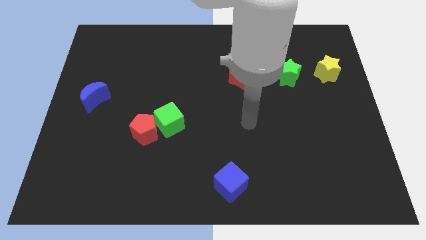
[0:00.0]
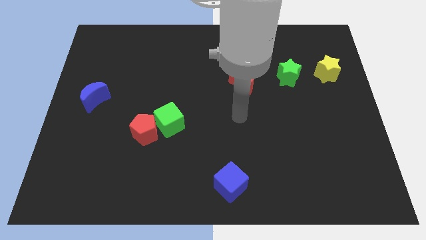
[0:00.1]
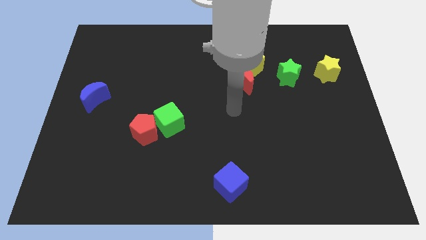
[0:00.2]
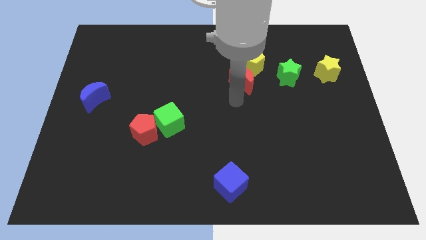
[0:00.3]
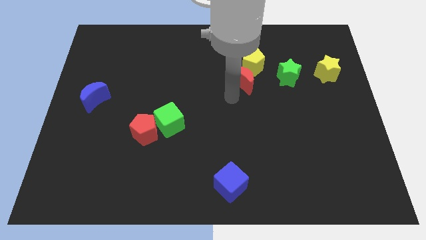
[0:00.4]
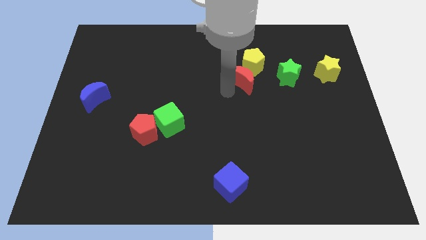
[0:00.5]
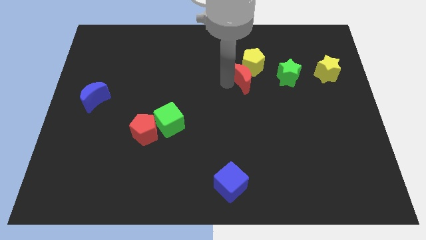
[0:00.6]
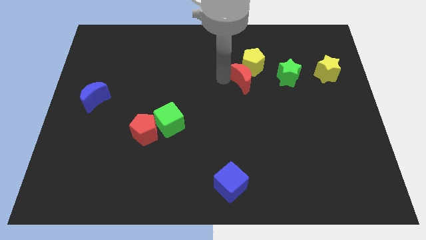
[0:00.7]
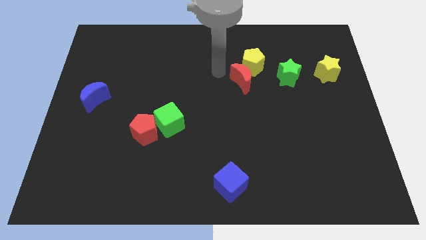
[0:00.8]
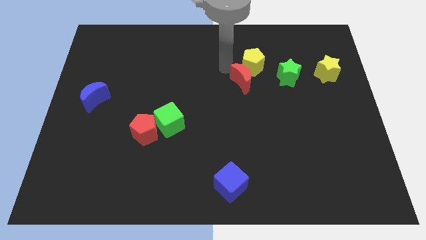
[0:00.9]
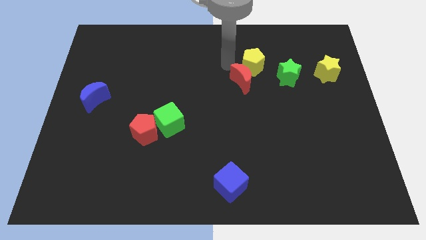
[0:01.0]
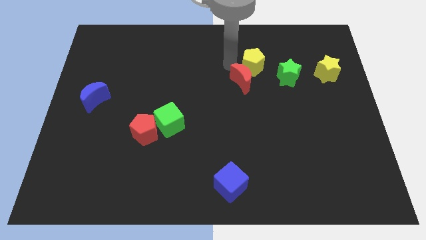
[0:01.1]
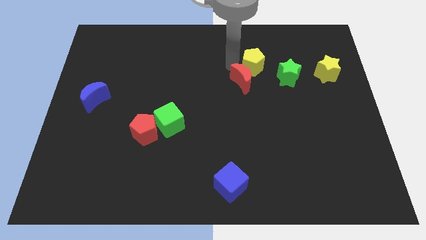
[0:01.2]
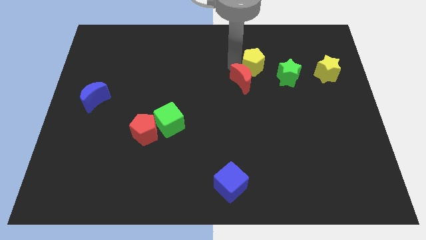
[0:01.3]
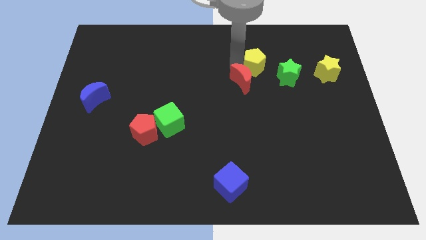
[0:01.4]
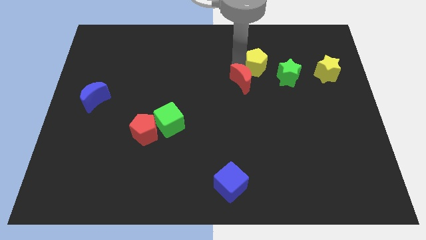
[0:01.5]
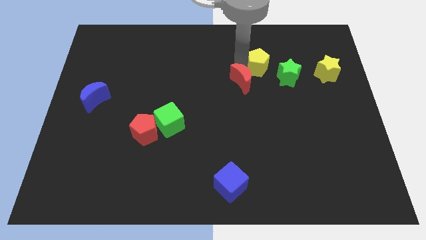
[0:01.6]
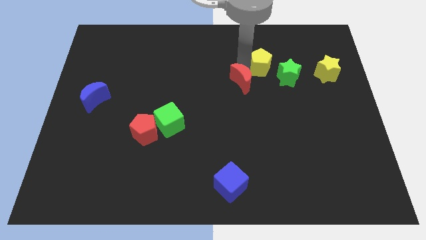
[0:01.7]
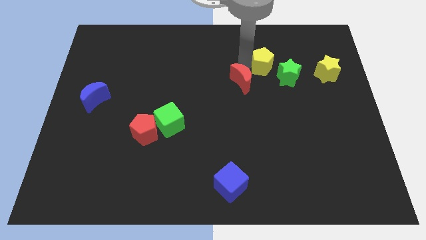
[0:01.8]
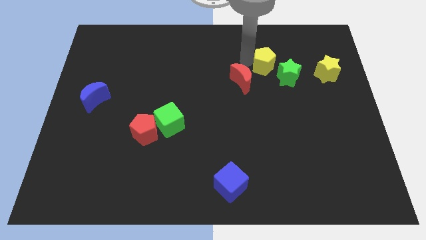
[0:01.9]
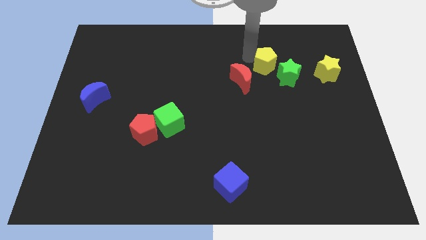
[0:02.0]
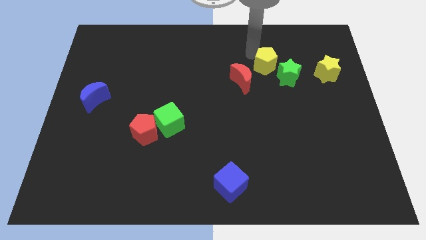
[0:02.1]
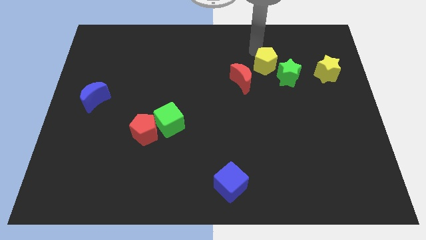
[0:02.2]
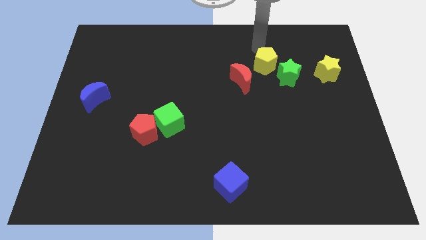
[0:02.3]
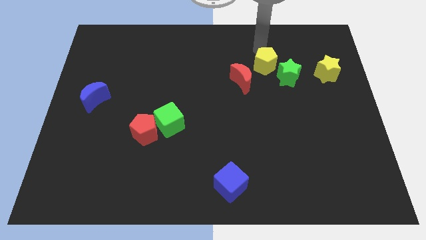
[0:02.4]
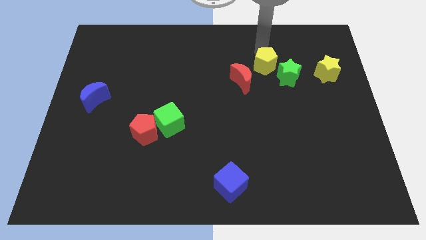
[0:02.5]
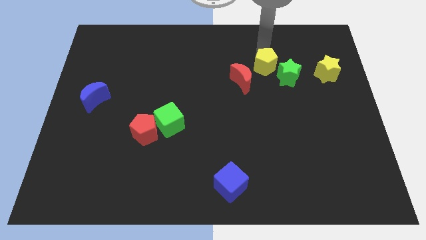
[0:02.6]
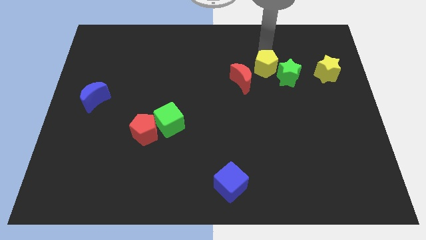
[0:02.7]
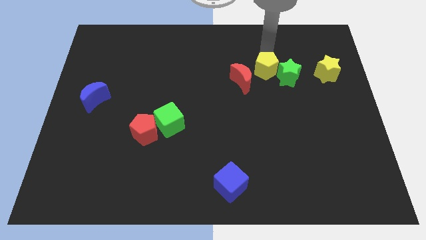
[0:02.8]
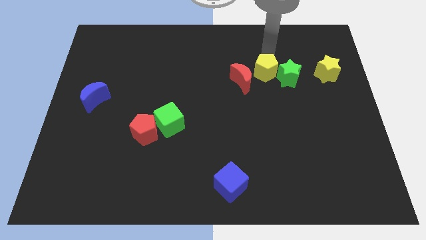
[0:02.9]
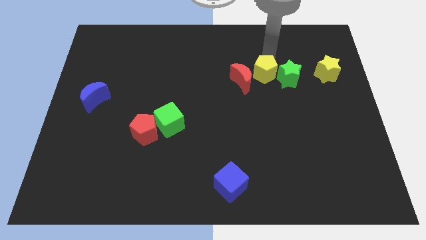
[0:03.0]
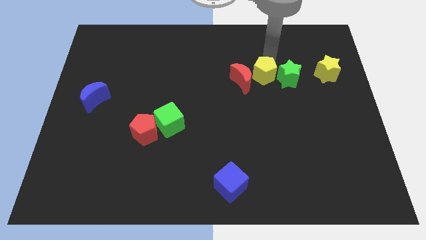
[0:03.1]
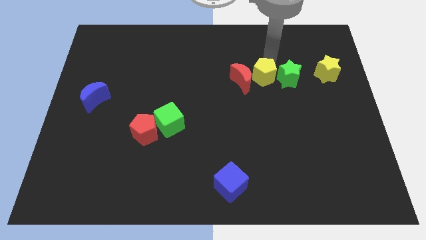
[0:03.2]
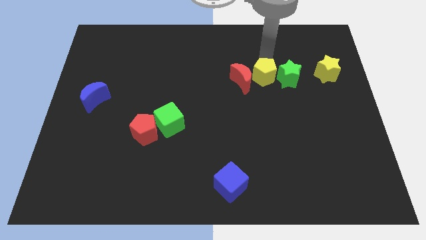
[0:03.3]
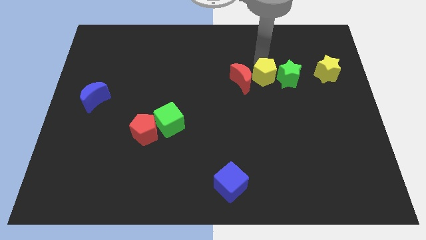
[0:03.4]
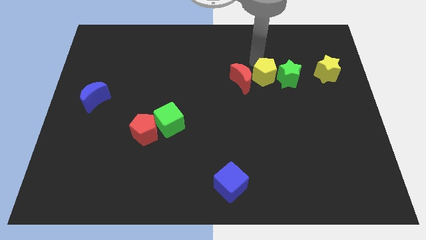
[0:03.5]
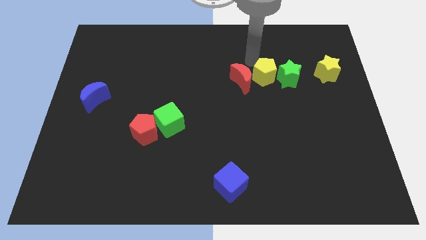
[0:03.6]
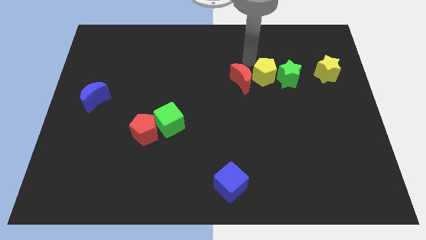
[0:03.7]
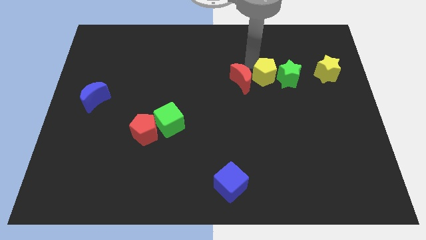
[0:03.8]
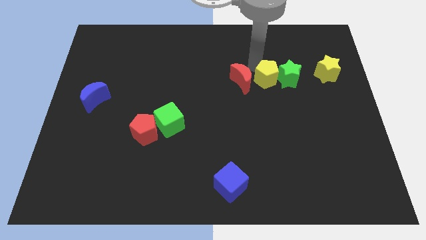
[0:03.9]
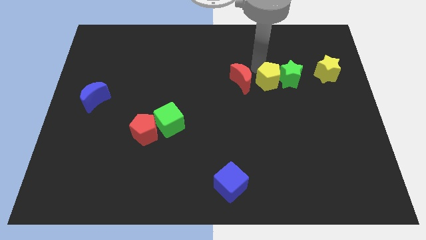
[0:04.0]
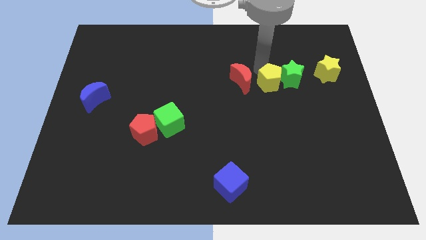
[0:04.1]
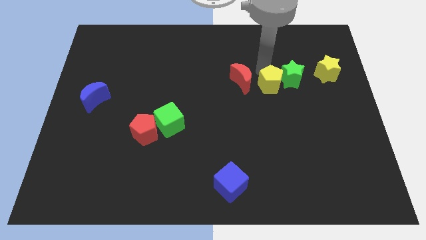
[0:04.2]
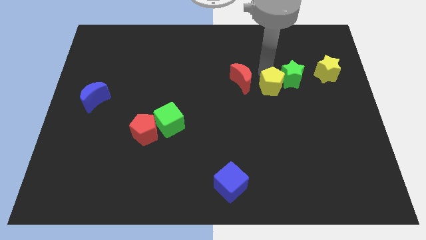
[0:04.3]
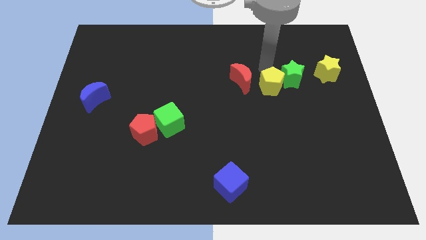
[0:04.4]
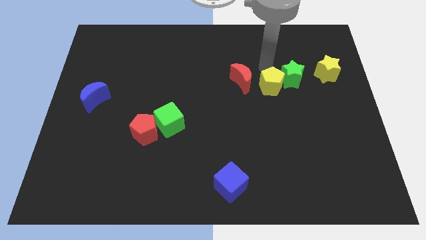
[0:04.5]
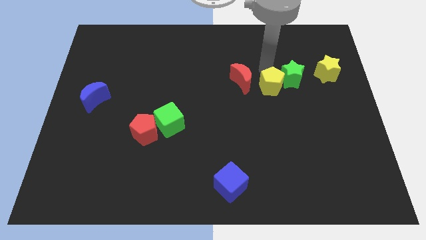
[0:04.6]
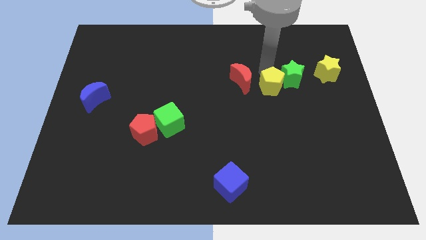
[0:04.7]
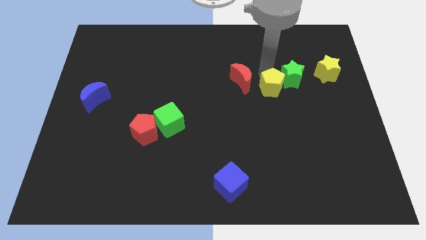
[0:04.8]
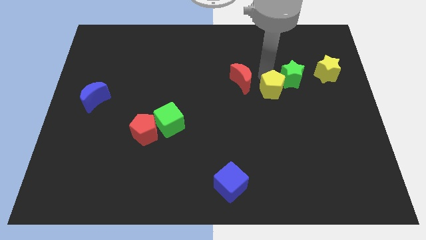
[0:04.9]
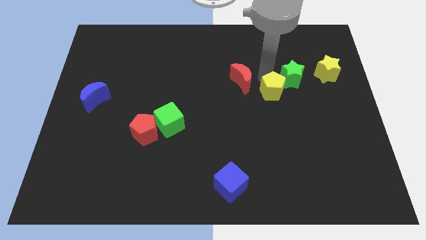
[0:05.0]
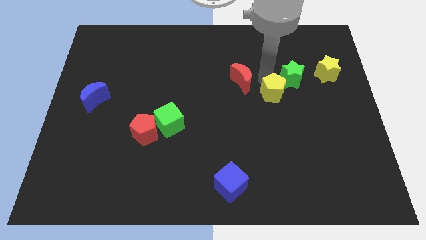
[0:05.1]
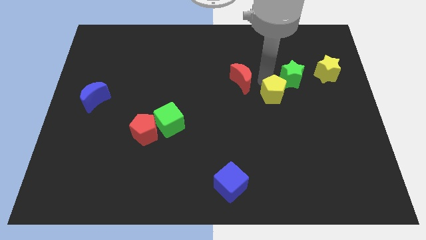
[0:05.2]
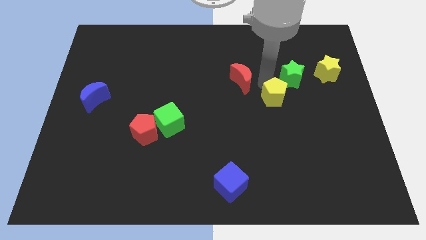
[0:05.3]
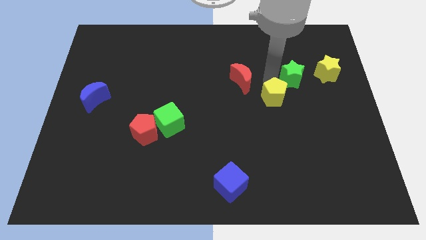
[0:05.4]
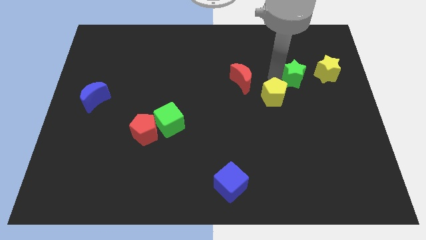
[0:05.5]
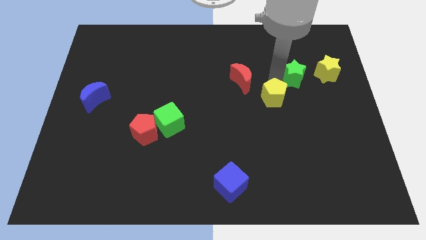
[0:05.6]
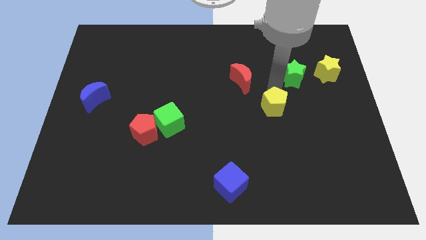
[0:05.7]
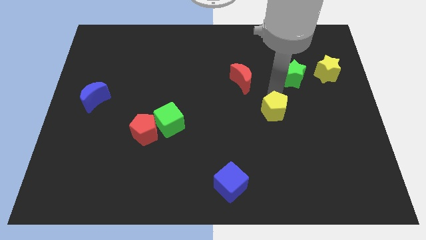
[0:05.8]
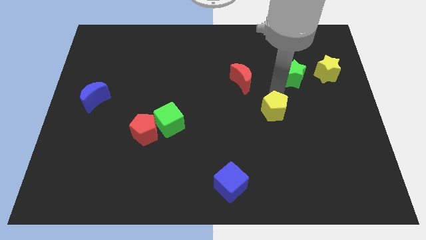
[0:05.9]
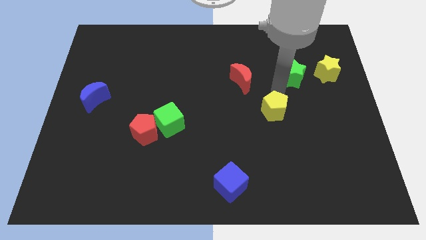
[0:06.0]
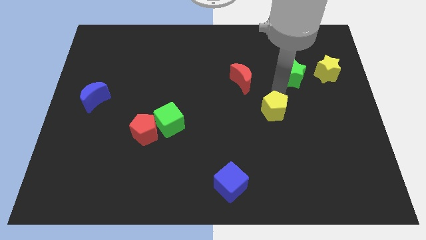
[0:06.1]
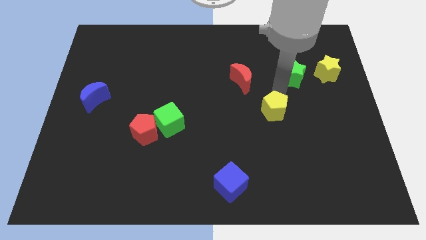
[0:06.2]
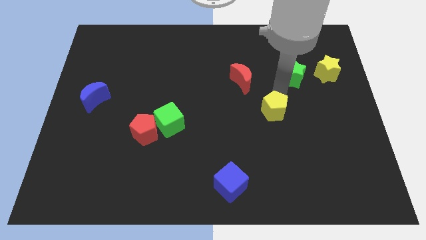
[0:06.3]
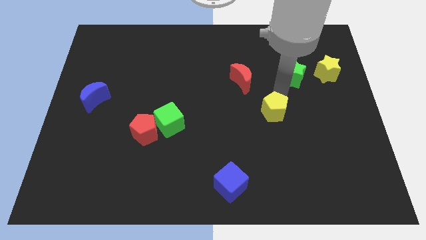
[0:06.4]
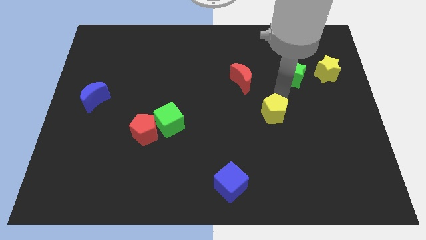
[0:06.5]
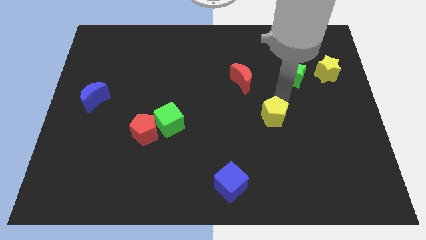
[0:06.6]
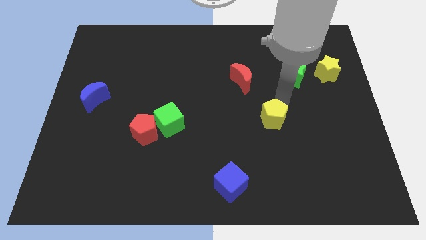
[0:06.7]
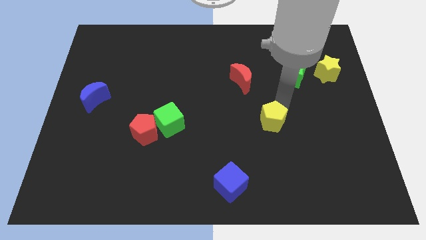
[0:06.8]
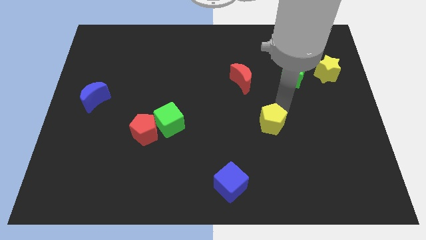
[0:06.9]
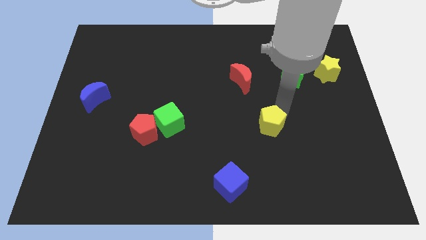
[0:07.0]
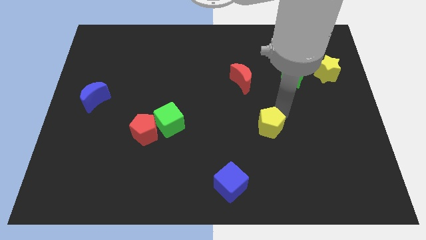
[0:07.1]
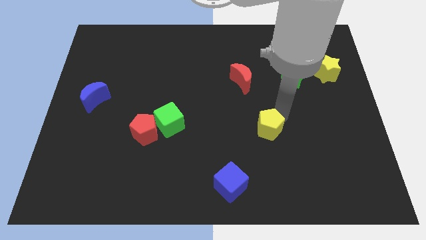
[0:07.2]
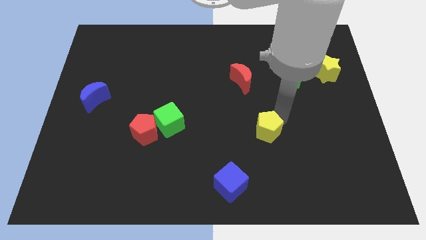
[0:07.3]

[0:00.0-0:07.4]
move the yellow pentagon downwards

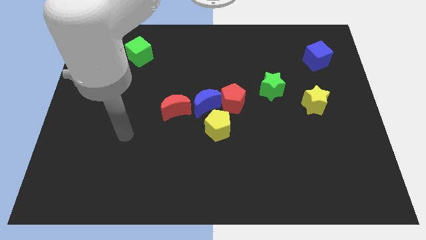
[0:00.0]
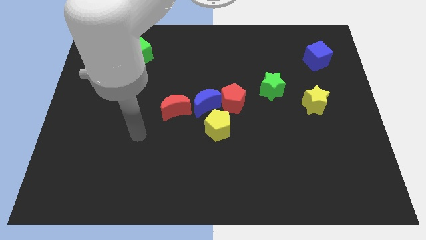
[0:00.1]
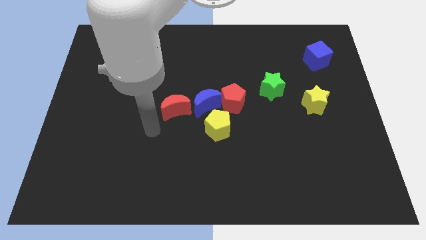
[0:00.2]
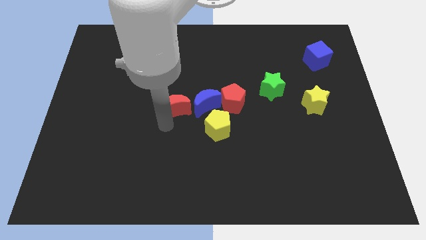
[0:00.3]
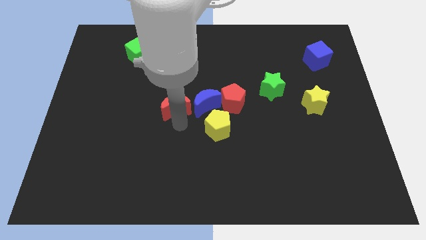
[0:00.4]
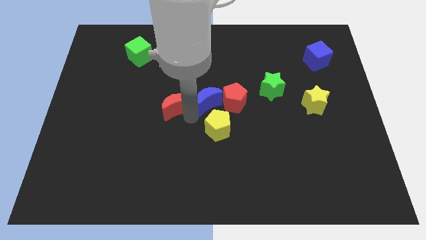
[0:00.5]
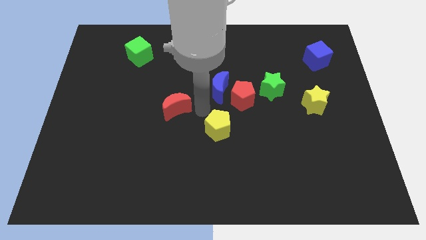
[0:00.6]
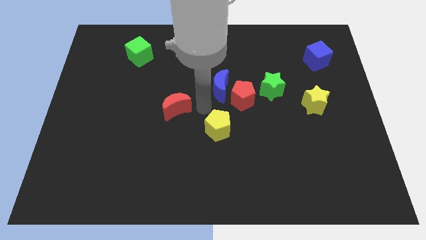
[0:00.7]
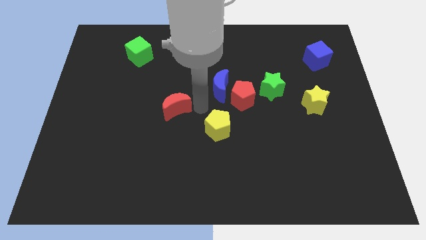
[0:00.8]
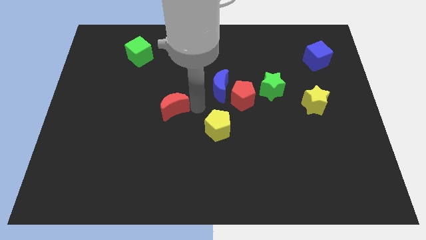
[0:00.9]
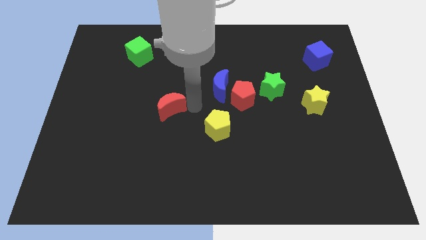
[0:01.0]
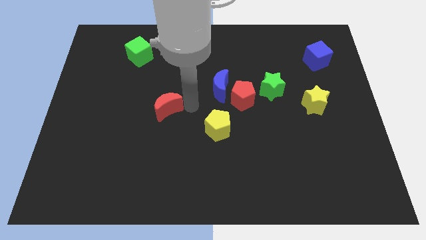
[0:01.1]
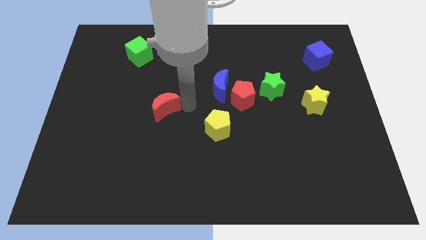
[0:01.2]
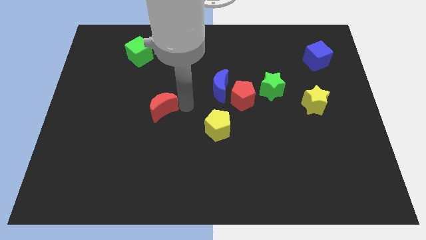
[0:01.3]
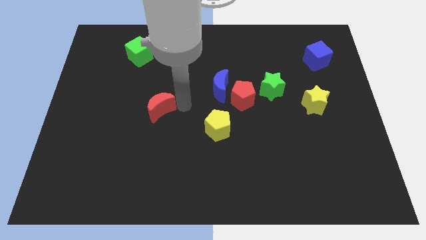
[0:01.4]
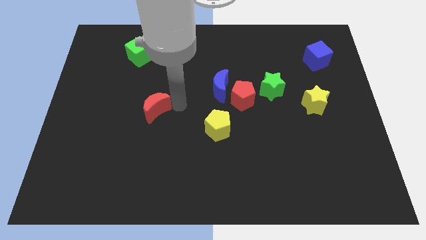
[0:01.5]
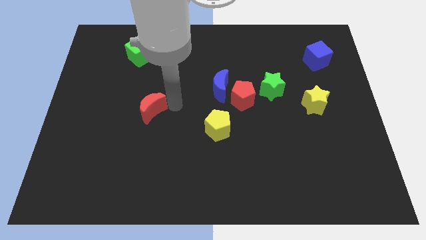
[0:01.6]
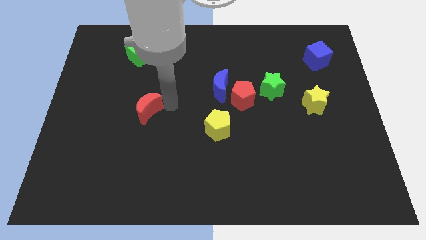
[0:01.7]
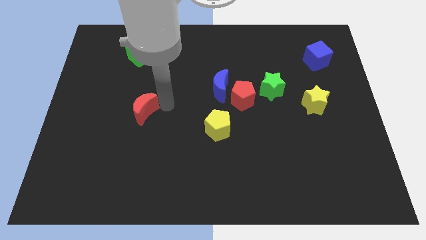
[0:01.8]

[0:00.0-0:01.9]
slide the red moon slightly left
